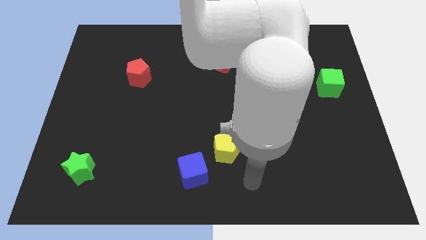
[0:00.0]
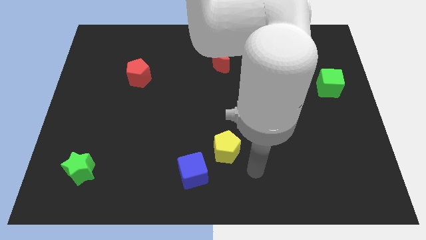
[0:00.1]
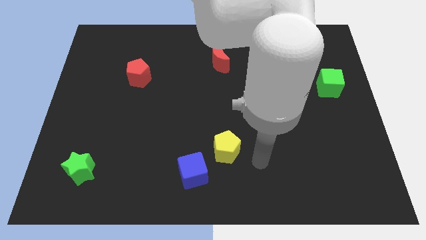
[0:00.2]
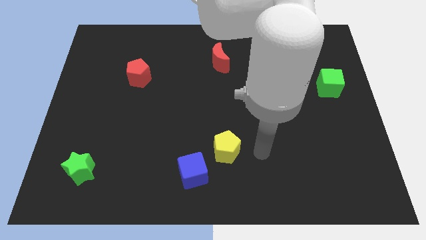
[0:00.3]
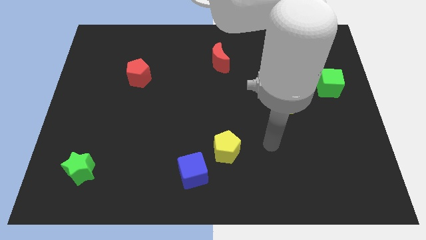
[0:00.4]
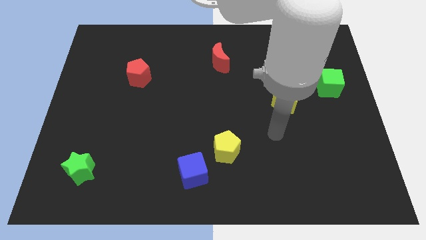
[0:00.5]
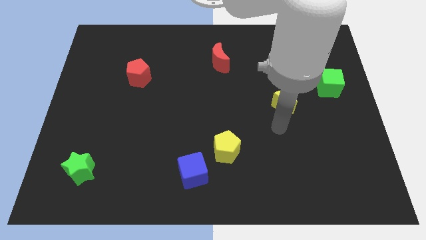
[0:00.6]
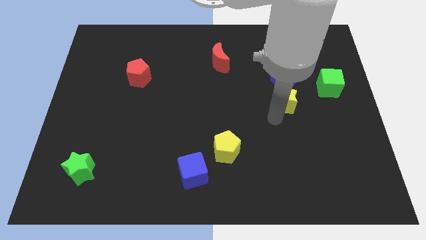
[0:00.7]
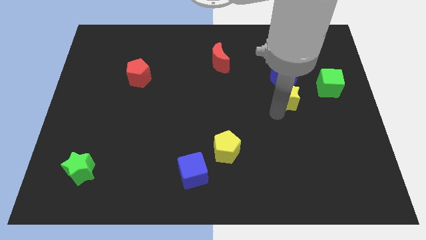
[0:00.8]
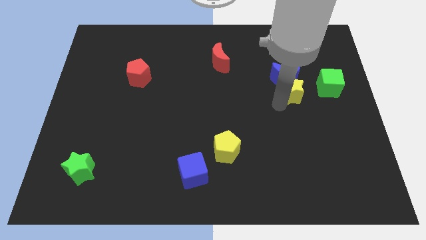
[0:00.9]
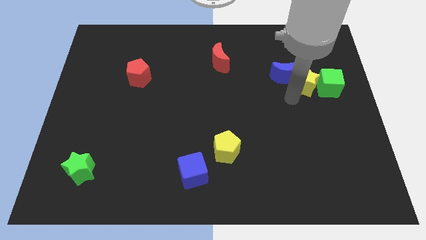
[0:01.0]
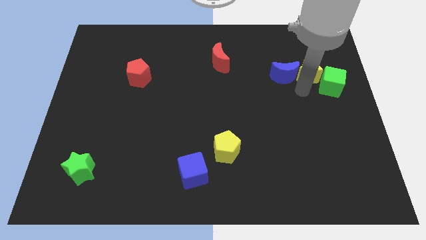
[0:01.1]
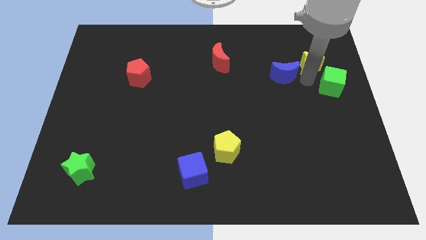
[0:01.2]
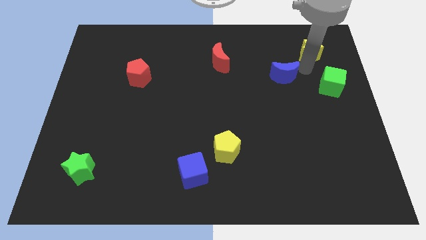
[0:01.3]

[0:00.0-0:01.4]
pull the blue moon apart from the yellow star

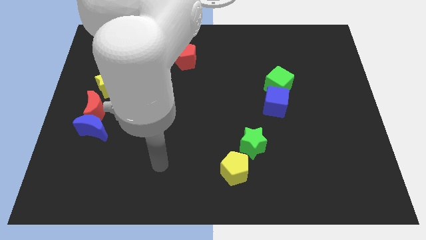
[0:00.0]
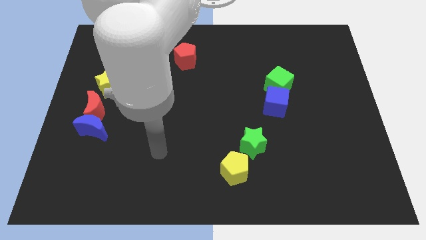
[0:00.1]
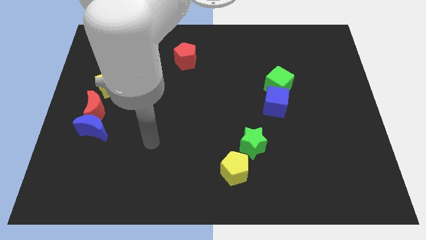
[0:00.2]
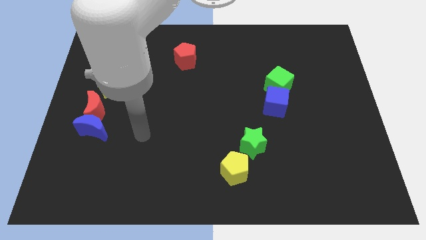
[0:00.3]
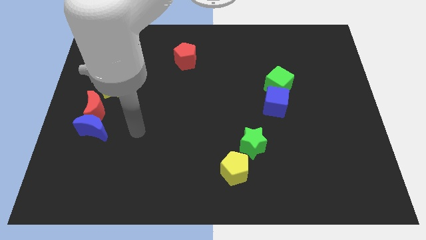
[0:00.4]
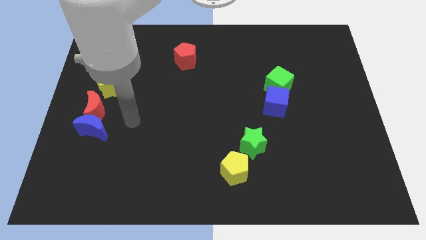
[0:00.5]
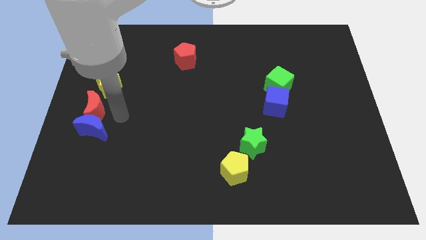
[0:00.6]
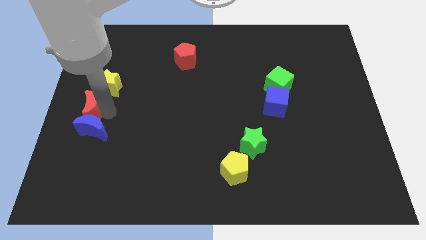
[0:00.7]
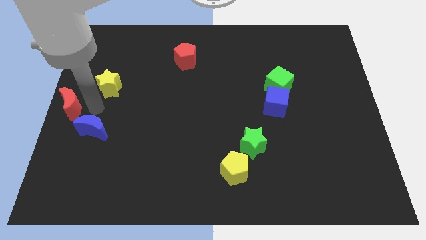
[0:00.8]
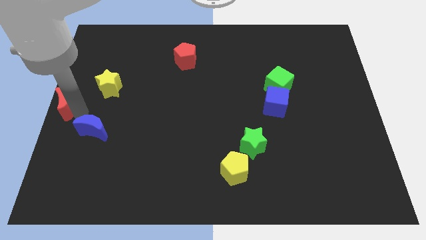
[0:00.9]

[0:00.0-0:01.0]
separate the blue moon from the red moon

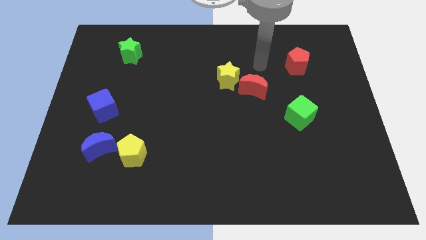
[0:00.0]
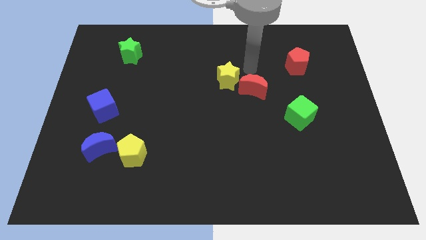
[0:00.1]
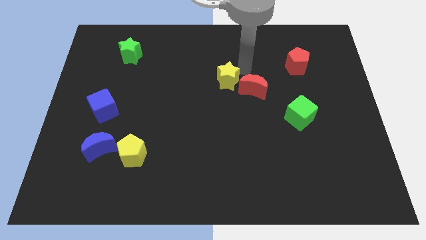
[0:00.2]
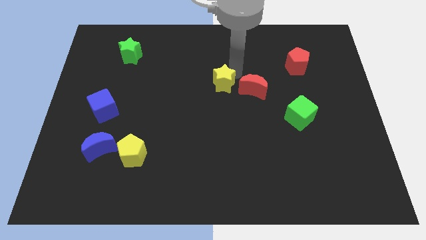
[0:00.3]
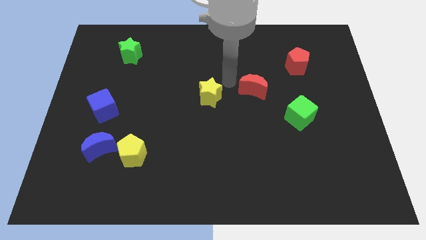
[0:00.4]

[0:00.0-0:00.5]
separate the red moon from the yellow star

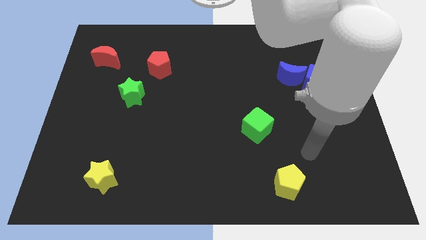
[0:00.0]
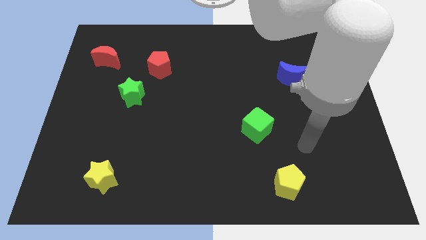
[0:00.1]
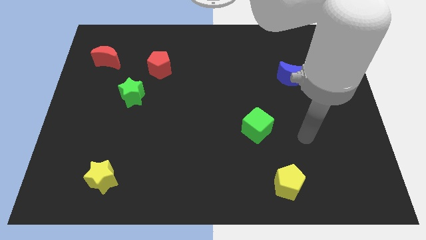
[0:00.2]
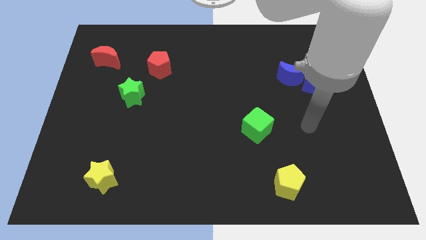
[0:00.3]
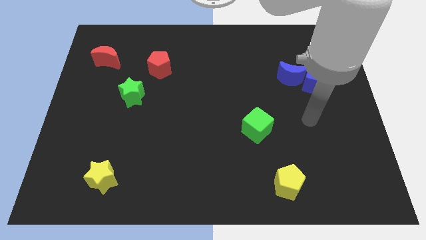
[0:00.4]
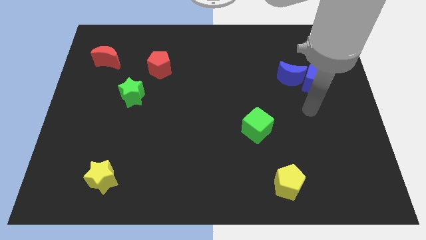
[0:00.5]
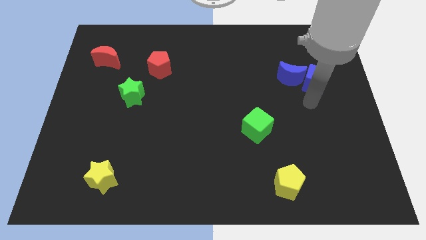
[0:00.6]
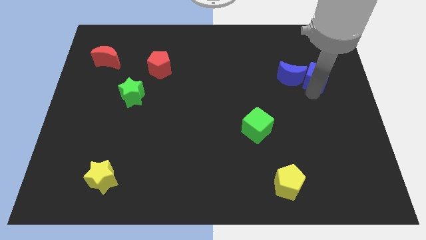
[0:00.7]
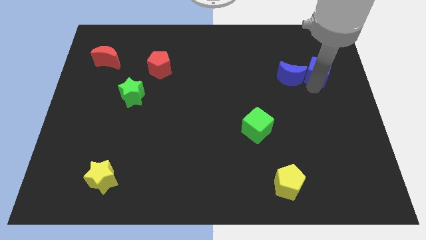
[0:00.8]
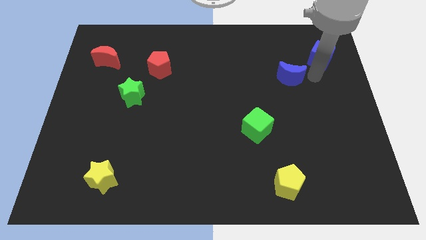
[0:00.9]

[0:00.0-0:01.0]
pull the blue moon apart from the blue cube

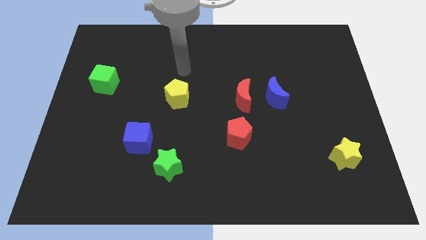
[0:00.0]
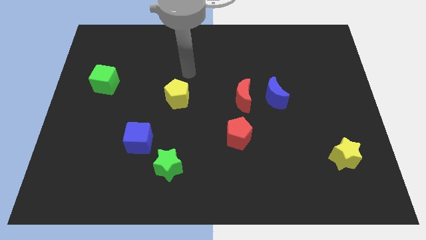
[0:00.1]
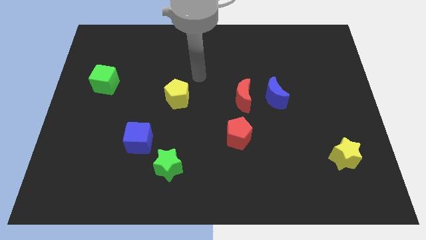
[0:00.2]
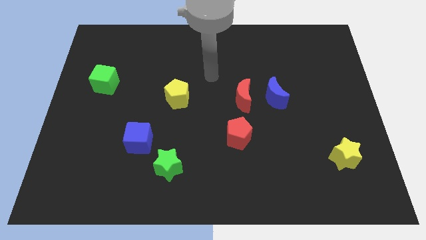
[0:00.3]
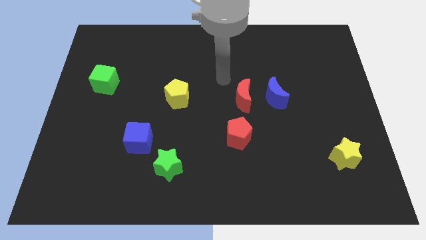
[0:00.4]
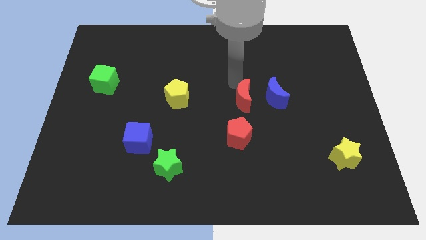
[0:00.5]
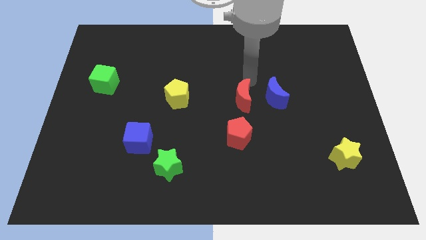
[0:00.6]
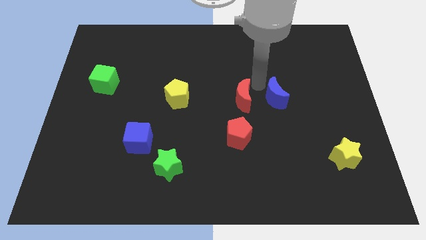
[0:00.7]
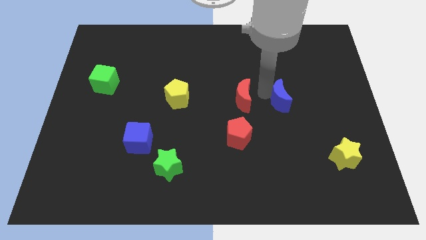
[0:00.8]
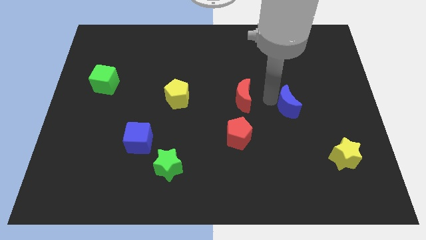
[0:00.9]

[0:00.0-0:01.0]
pull the red moon apart from the blue moon

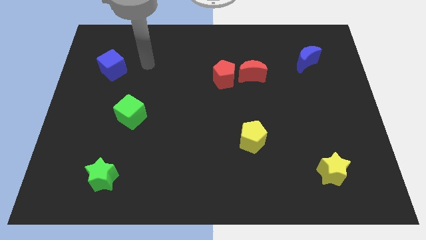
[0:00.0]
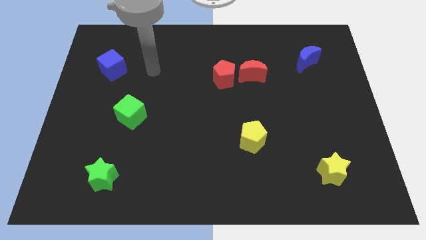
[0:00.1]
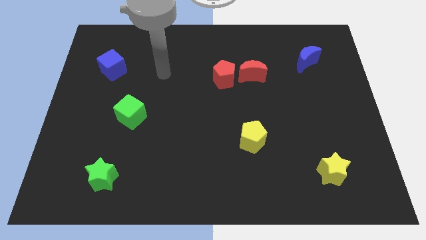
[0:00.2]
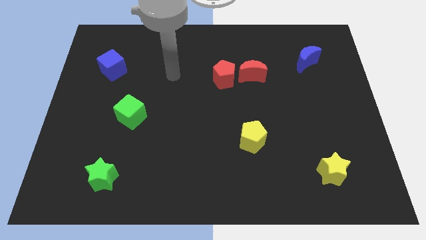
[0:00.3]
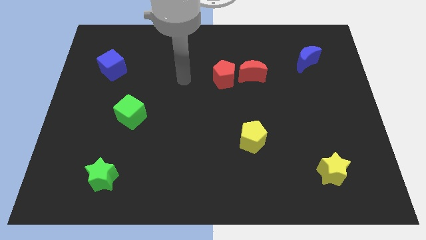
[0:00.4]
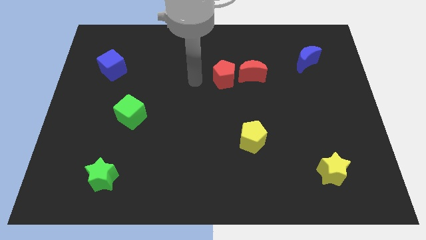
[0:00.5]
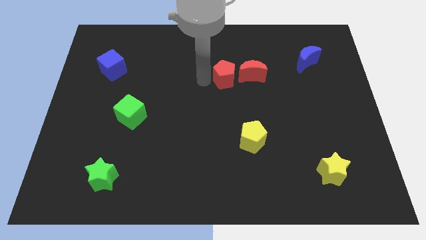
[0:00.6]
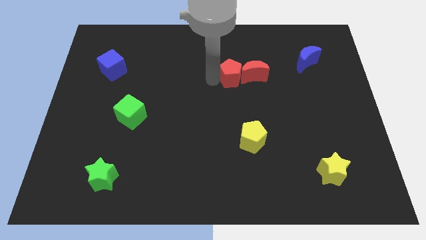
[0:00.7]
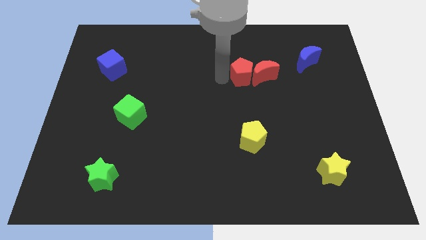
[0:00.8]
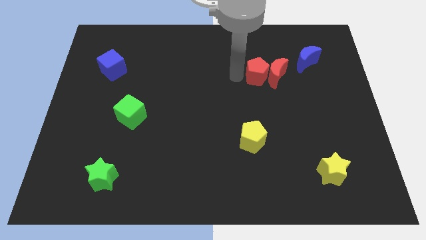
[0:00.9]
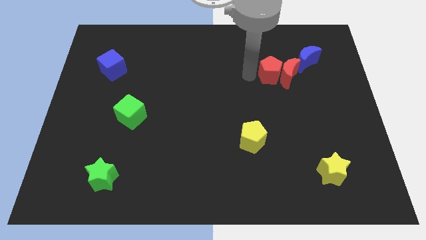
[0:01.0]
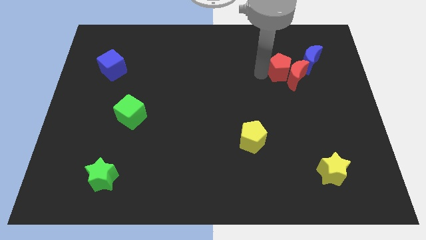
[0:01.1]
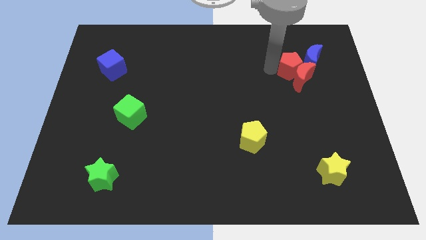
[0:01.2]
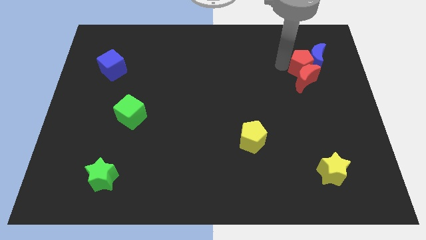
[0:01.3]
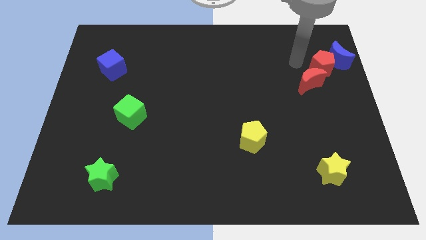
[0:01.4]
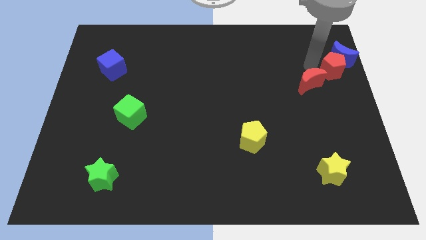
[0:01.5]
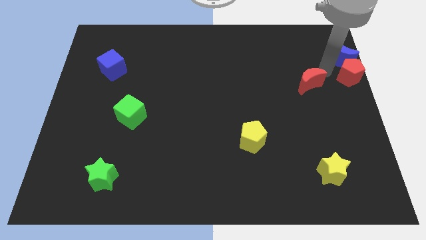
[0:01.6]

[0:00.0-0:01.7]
pull the red moon apart from the red pentagon

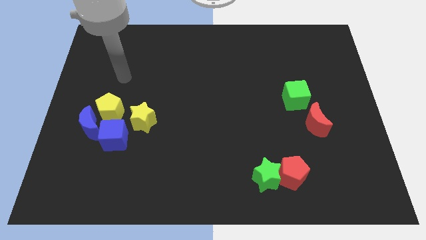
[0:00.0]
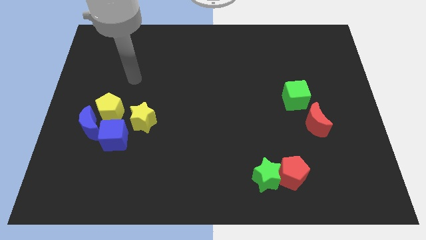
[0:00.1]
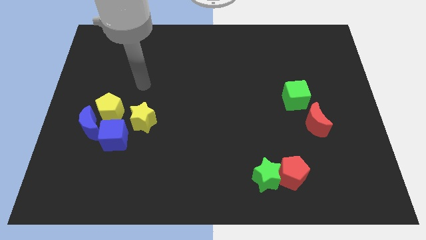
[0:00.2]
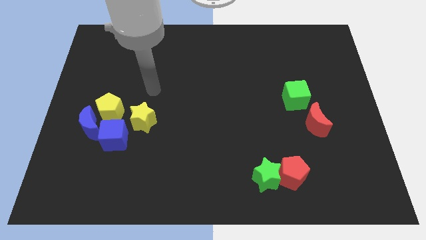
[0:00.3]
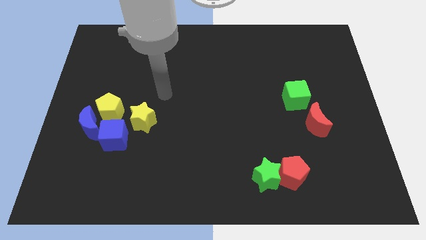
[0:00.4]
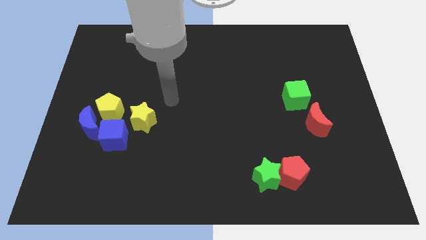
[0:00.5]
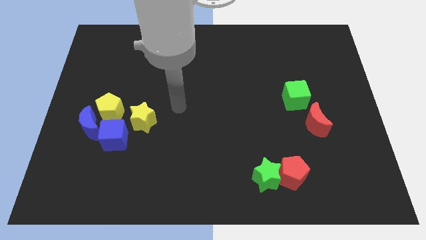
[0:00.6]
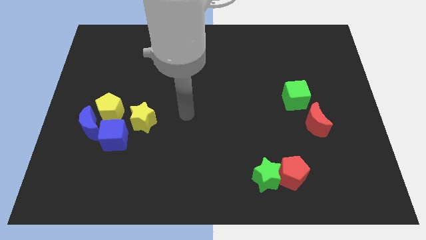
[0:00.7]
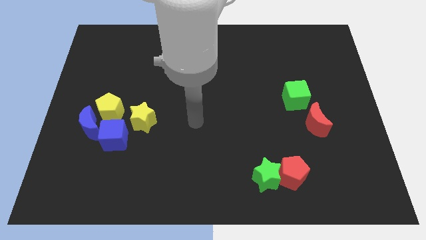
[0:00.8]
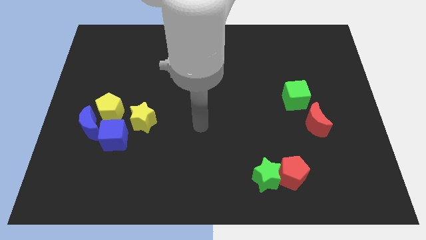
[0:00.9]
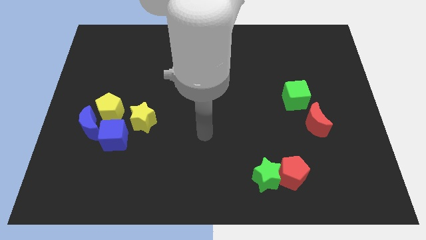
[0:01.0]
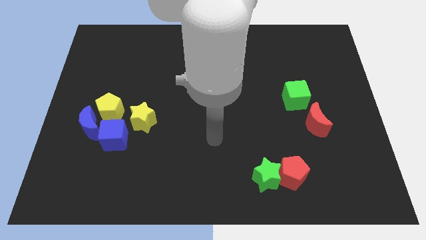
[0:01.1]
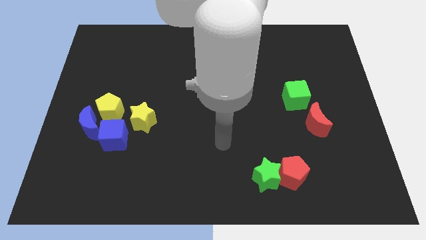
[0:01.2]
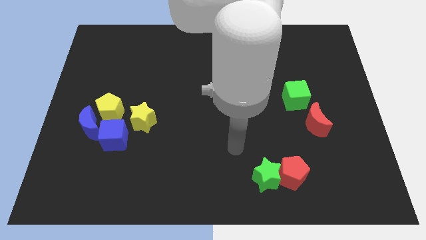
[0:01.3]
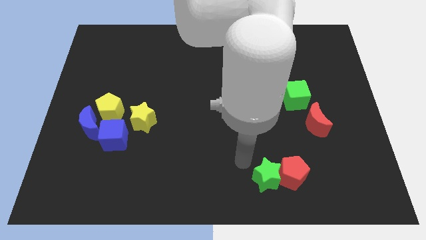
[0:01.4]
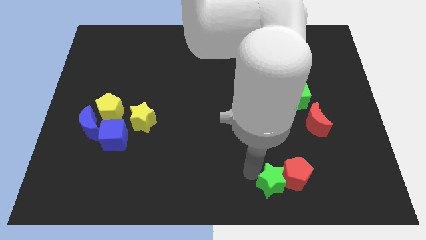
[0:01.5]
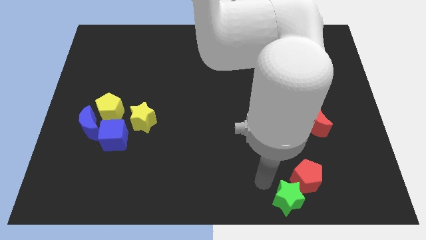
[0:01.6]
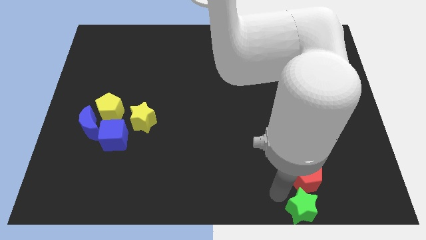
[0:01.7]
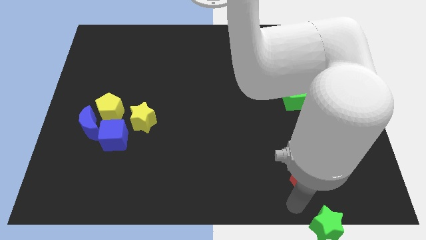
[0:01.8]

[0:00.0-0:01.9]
separate the red pentagon from the green star

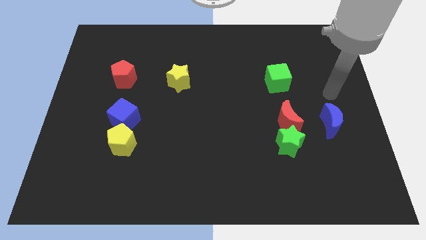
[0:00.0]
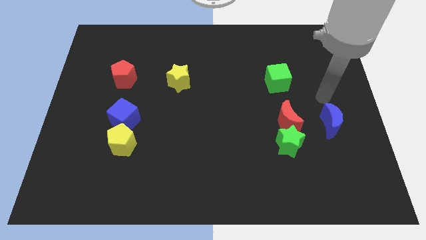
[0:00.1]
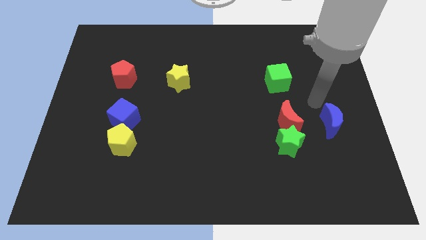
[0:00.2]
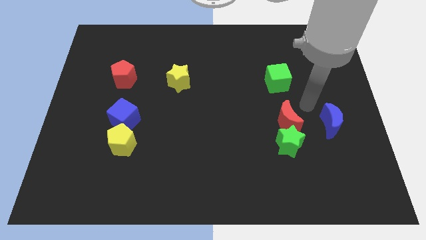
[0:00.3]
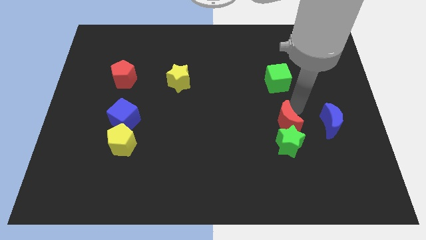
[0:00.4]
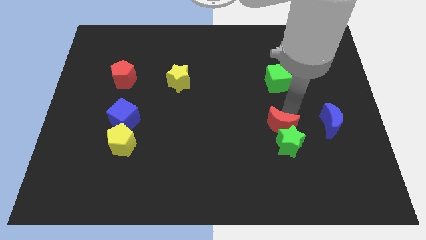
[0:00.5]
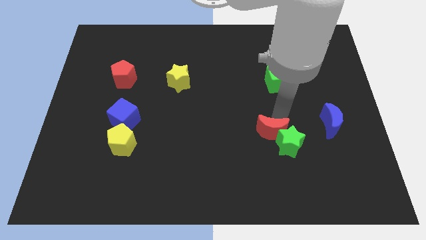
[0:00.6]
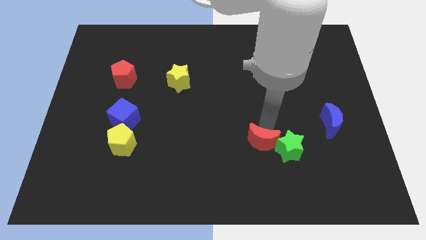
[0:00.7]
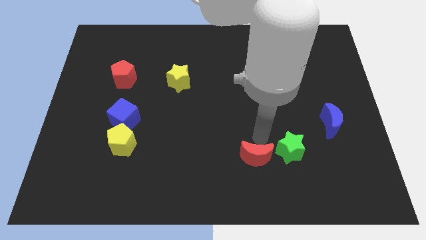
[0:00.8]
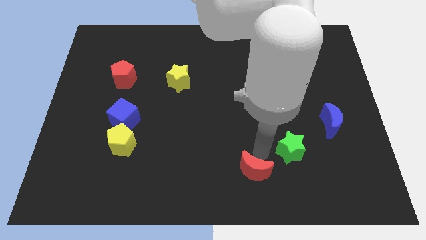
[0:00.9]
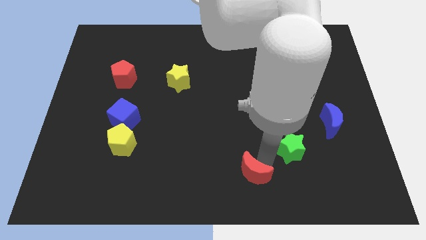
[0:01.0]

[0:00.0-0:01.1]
separate the green star from the red moon
